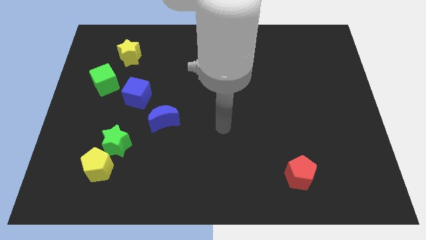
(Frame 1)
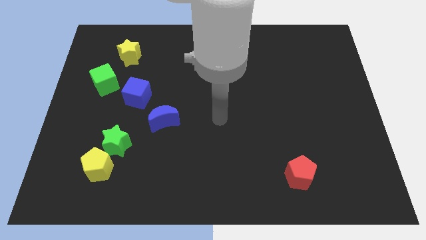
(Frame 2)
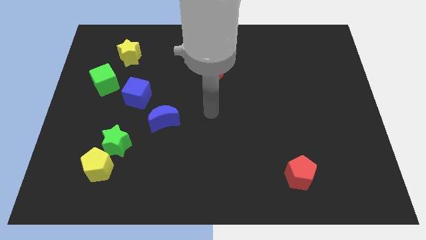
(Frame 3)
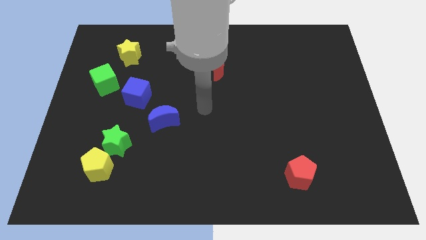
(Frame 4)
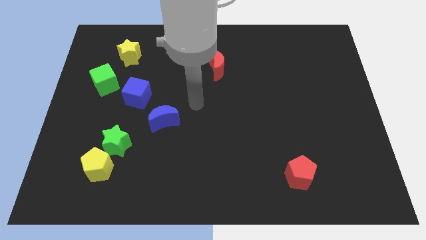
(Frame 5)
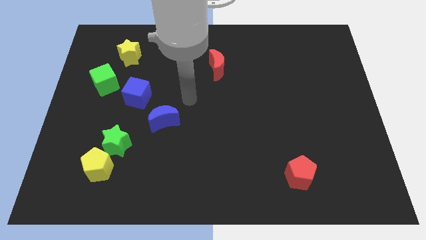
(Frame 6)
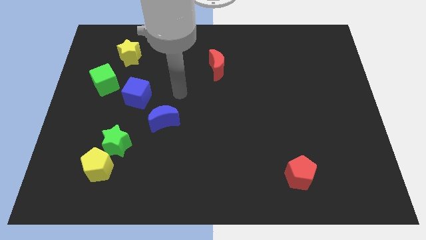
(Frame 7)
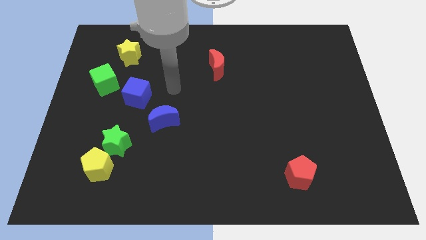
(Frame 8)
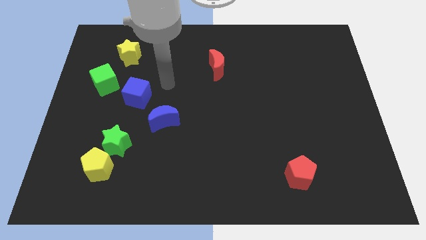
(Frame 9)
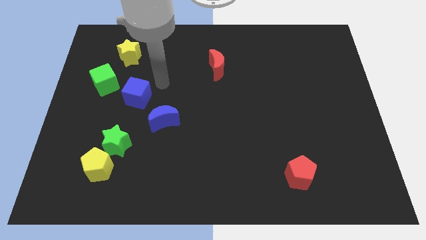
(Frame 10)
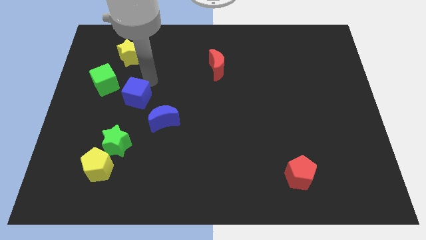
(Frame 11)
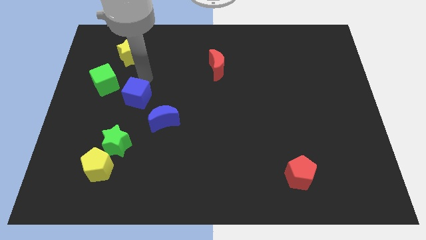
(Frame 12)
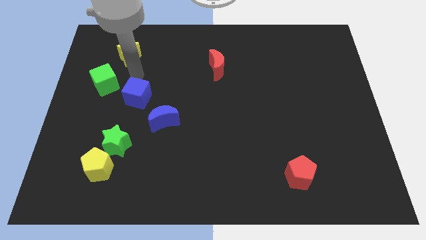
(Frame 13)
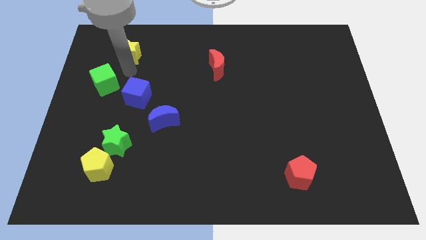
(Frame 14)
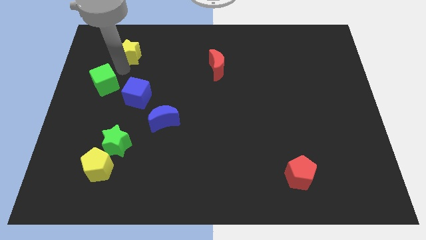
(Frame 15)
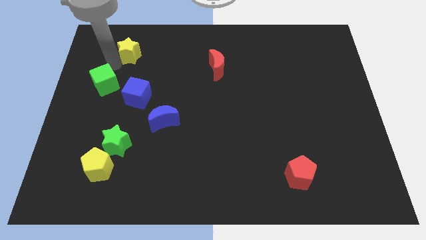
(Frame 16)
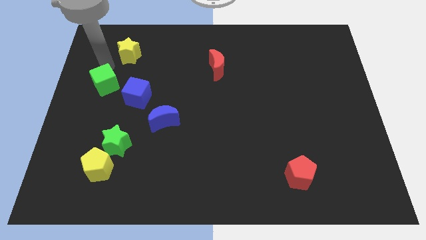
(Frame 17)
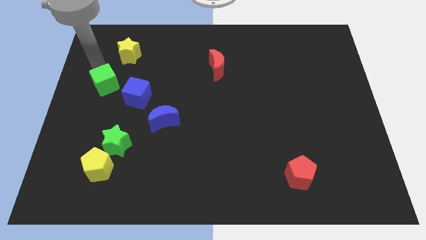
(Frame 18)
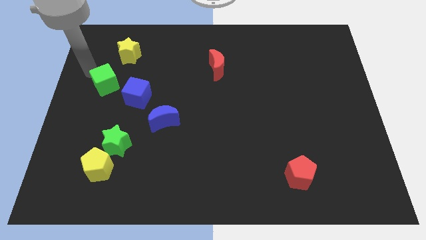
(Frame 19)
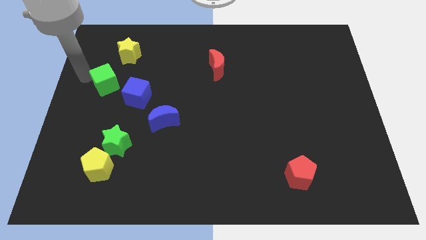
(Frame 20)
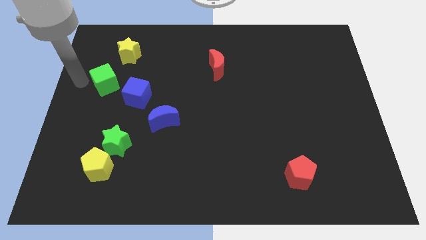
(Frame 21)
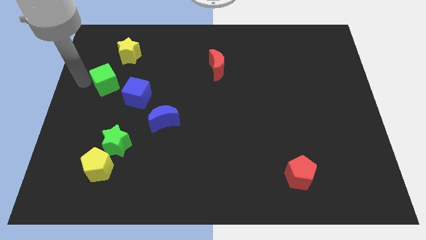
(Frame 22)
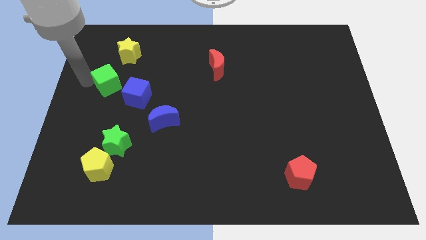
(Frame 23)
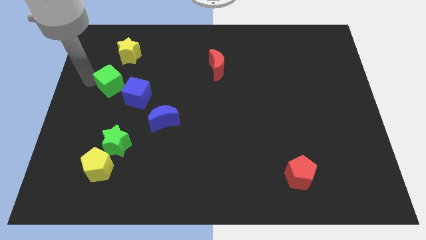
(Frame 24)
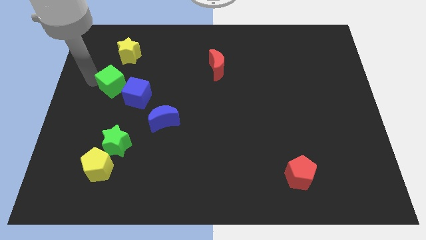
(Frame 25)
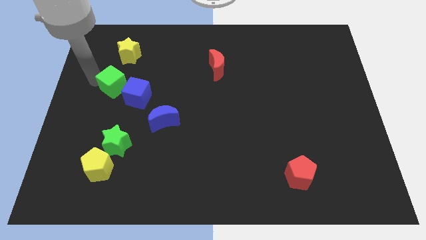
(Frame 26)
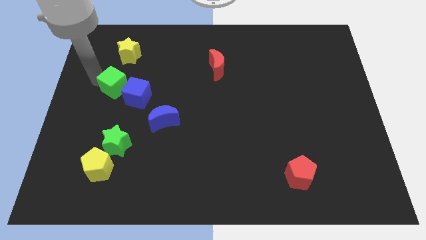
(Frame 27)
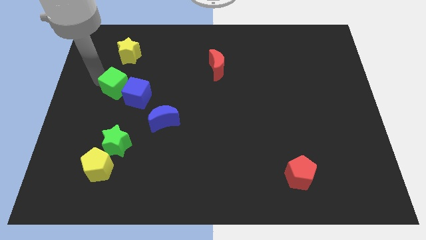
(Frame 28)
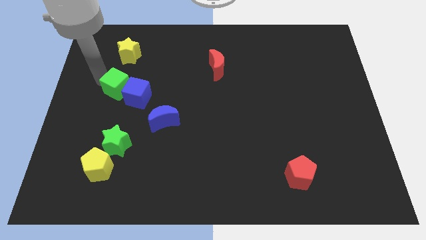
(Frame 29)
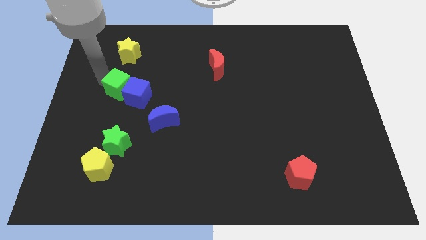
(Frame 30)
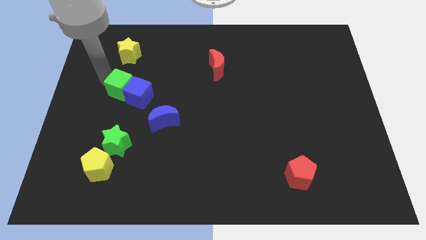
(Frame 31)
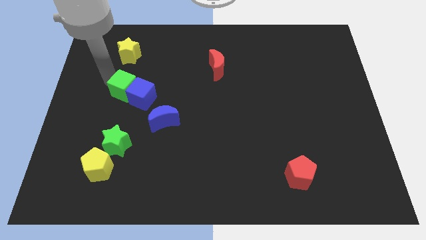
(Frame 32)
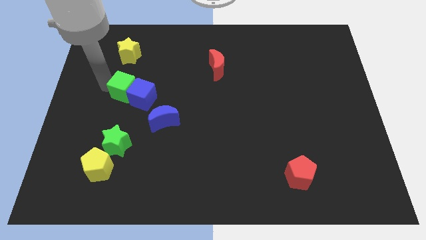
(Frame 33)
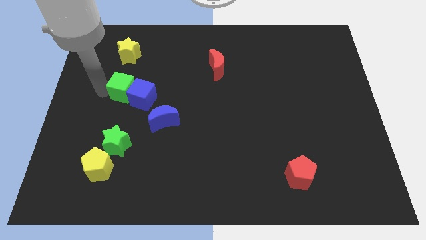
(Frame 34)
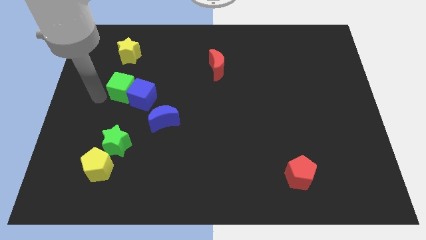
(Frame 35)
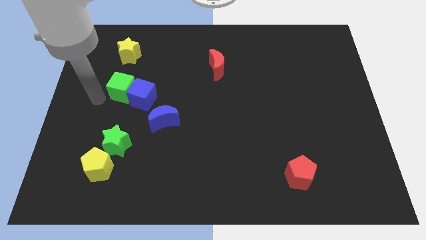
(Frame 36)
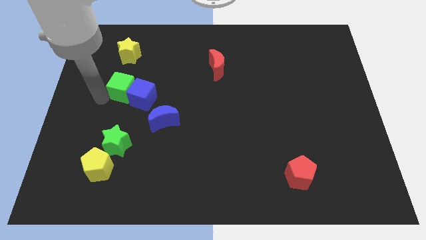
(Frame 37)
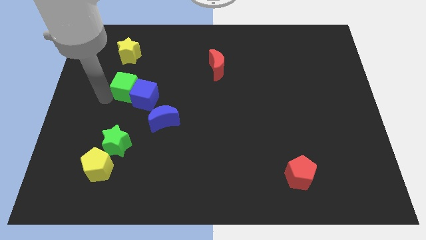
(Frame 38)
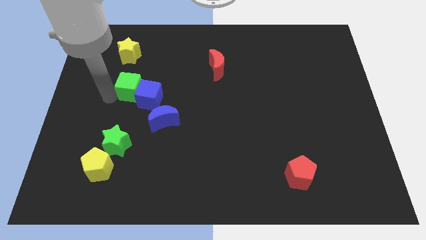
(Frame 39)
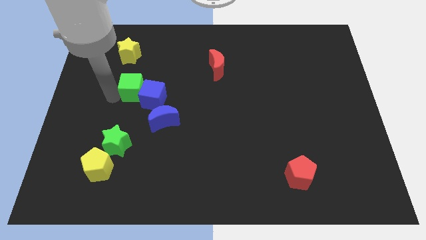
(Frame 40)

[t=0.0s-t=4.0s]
push the green cube right a little bit

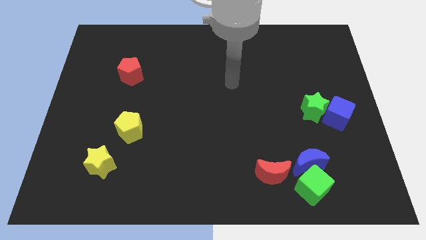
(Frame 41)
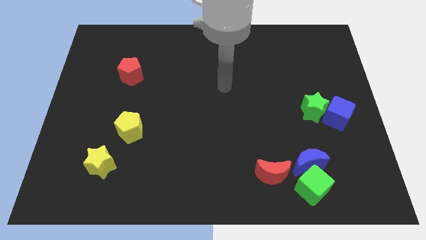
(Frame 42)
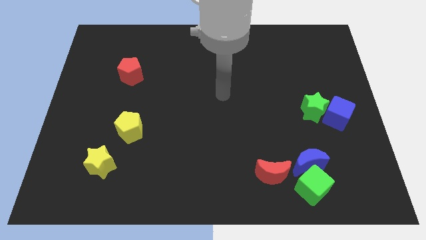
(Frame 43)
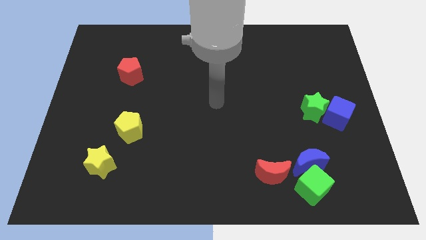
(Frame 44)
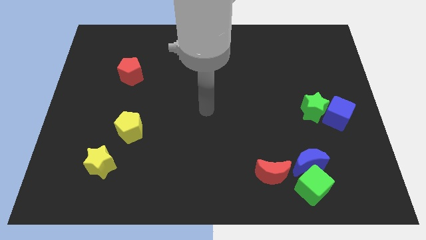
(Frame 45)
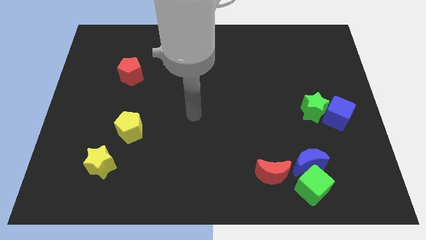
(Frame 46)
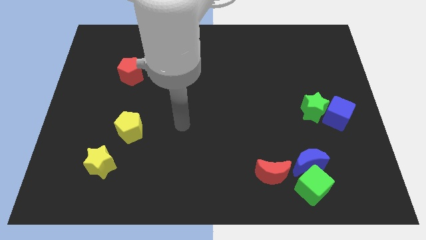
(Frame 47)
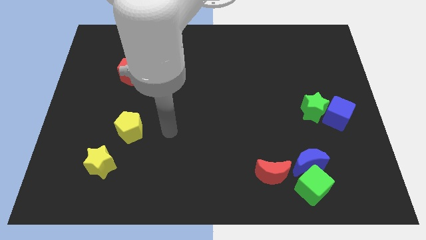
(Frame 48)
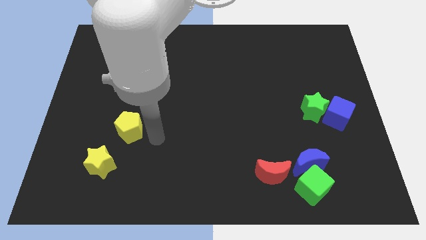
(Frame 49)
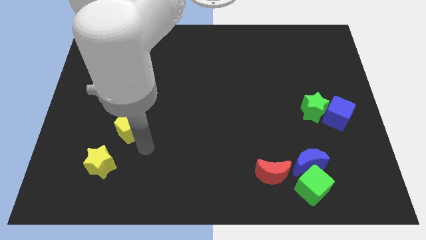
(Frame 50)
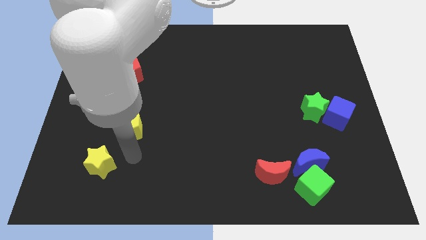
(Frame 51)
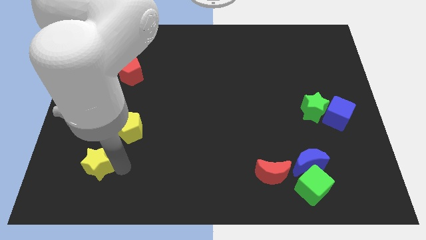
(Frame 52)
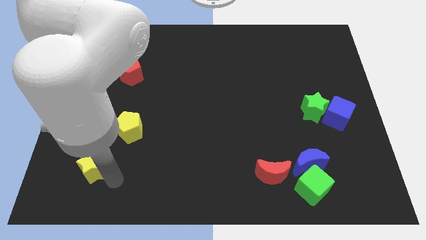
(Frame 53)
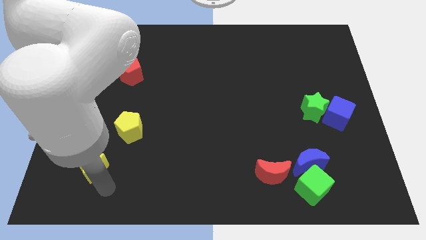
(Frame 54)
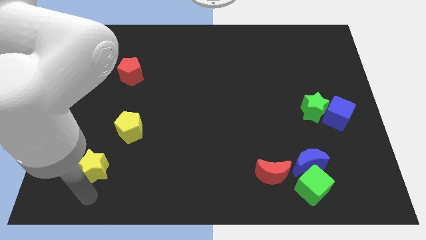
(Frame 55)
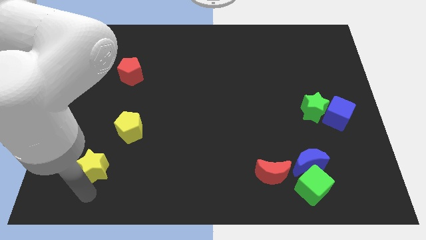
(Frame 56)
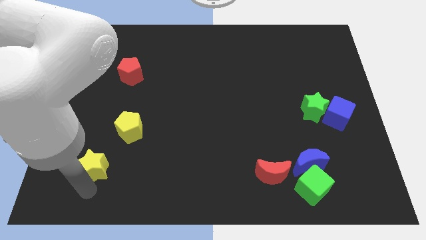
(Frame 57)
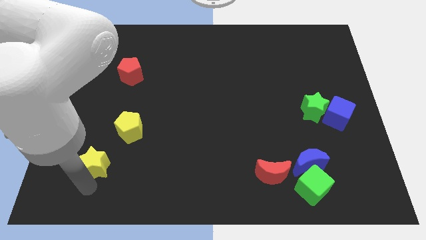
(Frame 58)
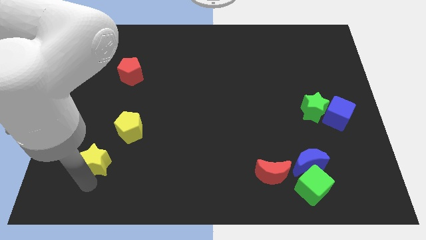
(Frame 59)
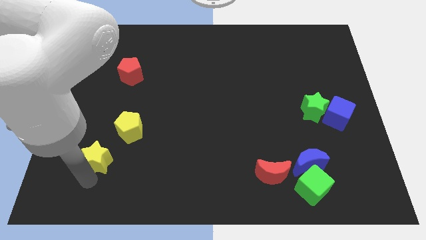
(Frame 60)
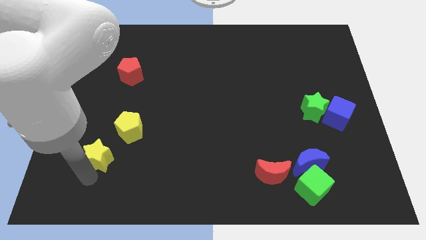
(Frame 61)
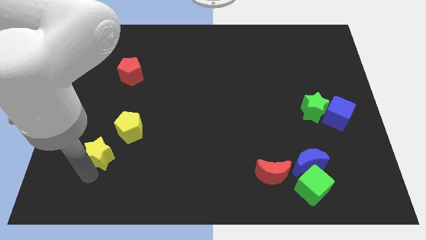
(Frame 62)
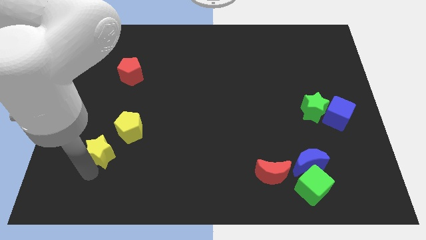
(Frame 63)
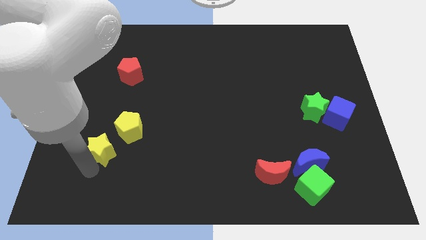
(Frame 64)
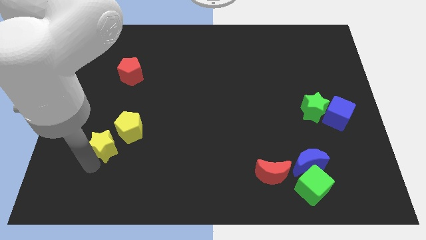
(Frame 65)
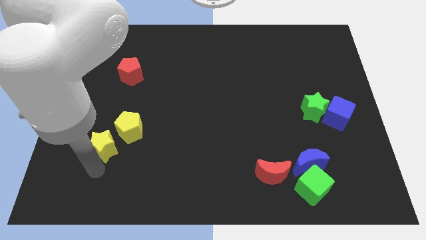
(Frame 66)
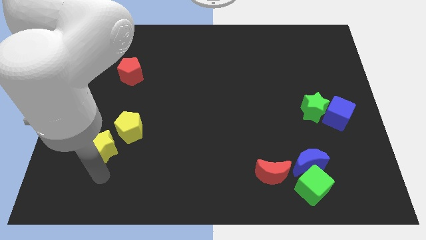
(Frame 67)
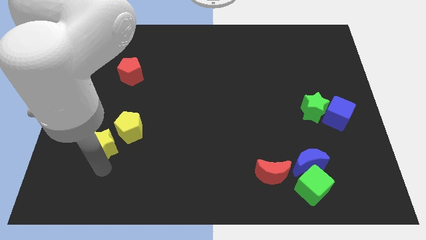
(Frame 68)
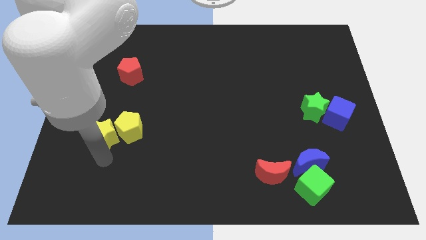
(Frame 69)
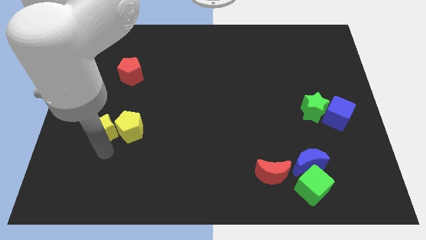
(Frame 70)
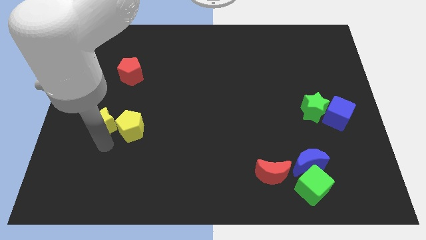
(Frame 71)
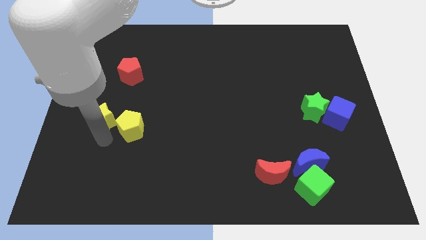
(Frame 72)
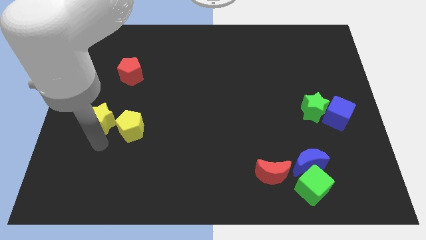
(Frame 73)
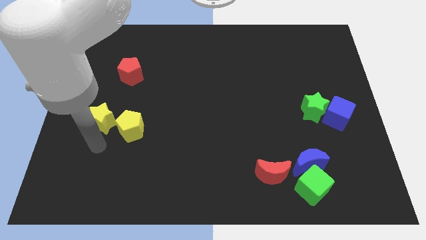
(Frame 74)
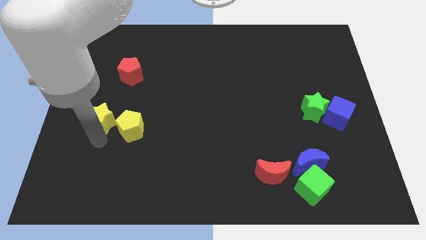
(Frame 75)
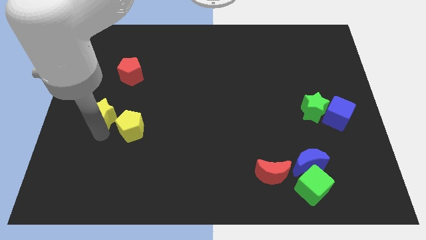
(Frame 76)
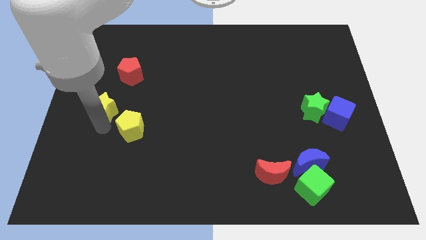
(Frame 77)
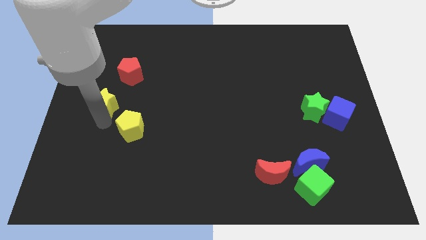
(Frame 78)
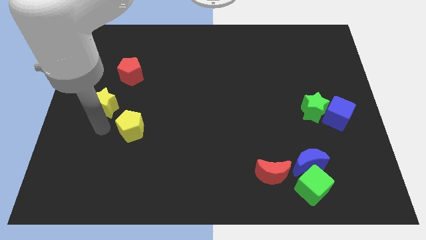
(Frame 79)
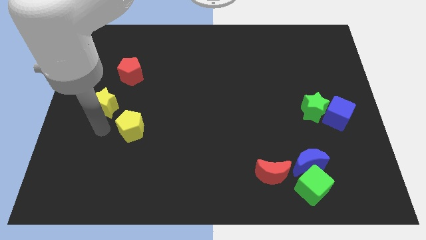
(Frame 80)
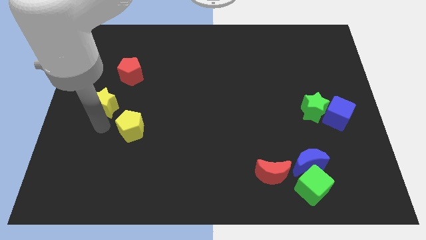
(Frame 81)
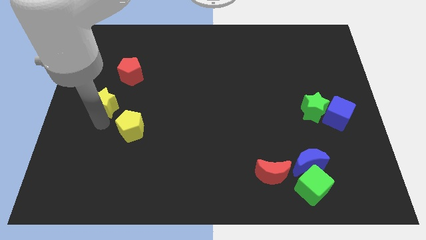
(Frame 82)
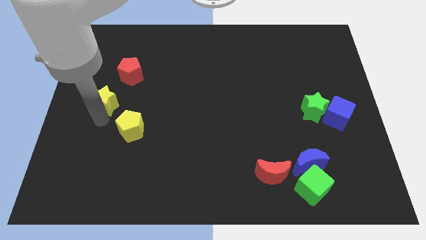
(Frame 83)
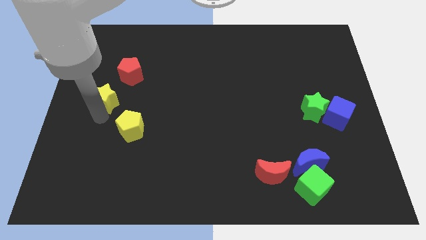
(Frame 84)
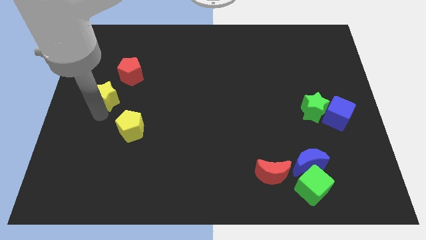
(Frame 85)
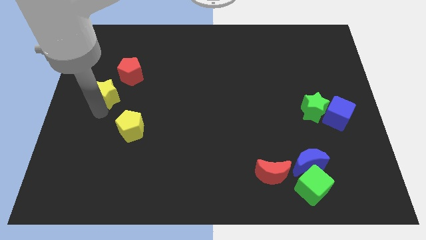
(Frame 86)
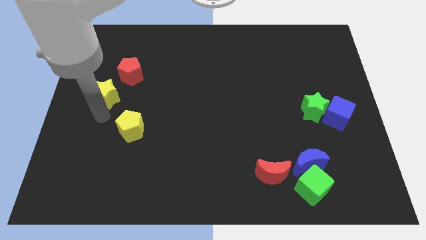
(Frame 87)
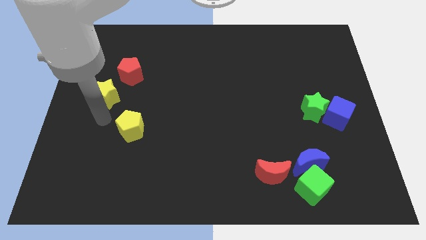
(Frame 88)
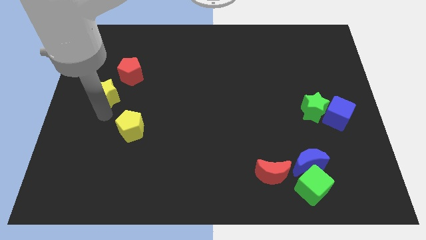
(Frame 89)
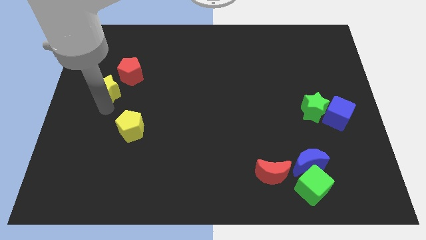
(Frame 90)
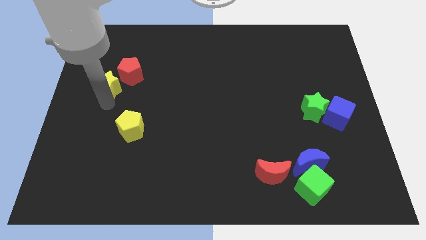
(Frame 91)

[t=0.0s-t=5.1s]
push the yellow star upwards
